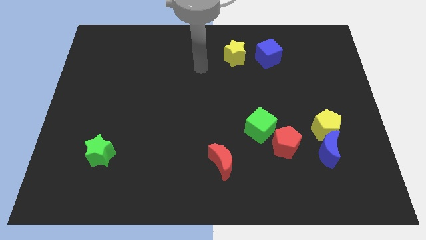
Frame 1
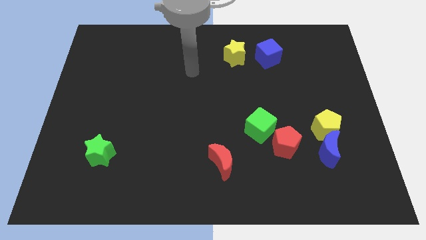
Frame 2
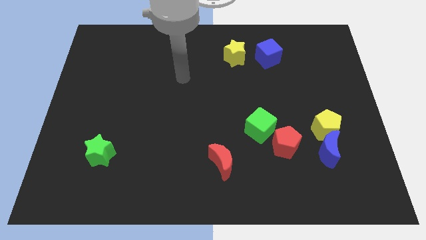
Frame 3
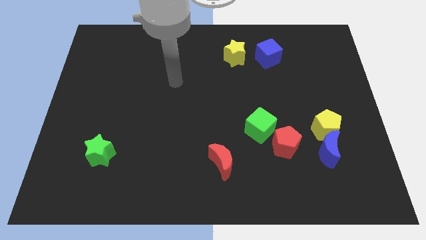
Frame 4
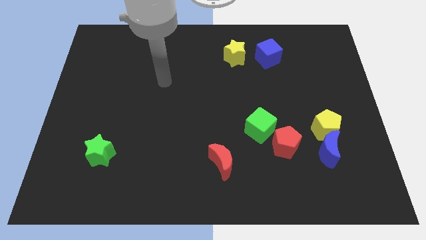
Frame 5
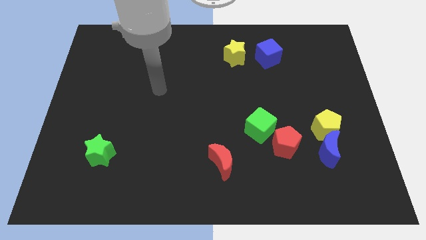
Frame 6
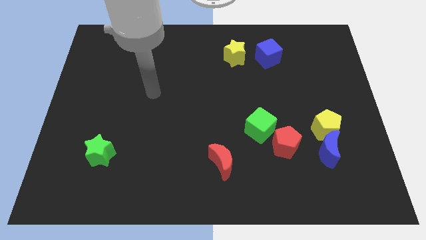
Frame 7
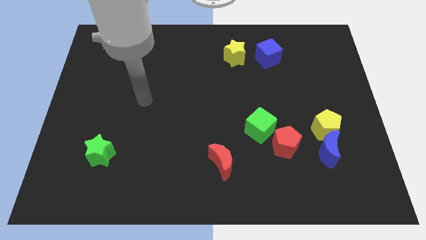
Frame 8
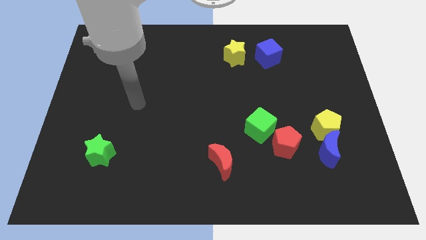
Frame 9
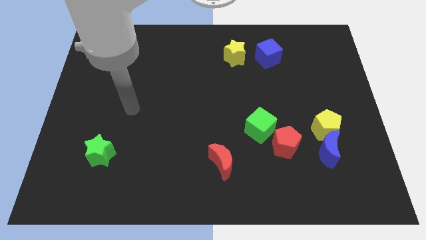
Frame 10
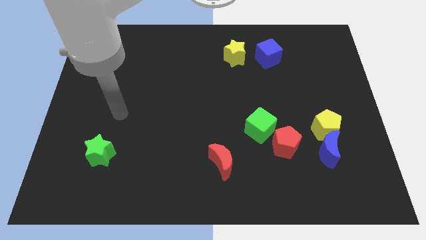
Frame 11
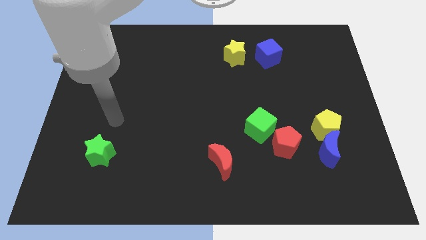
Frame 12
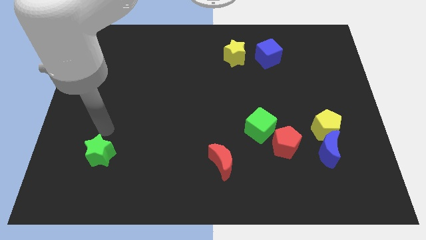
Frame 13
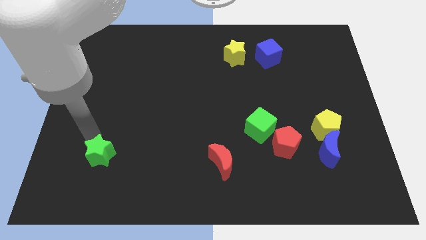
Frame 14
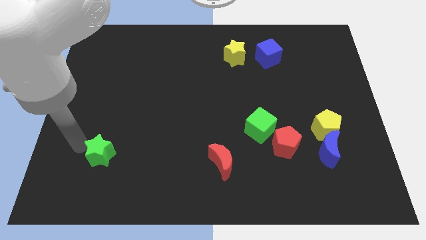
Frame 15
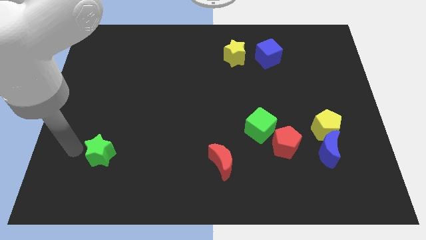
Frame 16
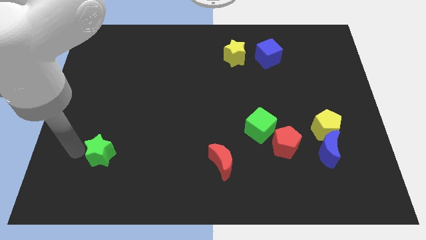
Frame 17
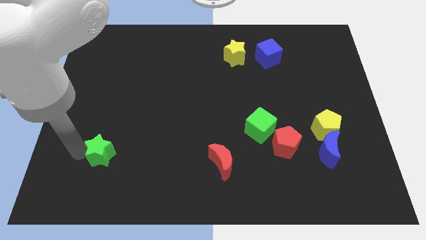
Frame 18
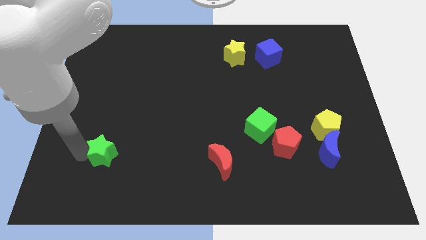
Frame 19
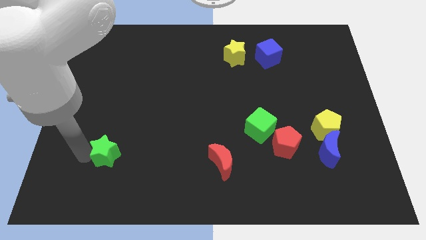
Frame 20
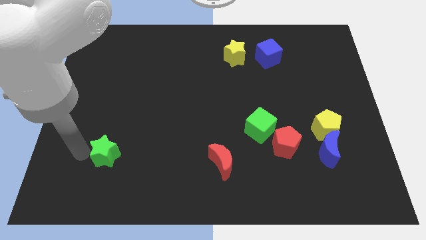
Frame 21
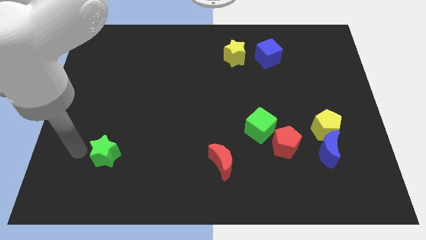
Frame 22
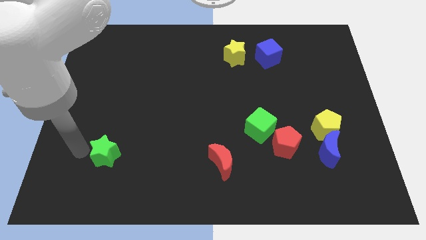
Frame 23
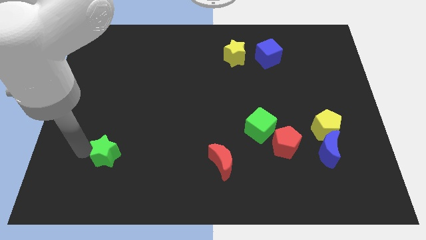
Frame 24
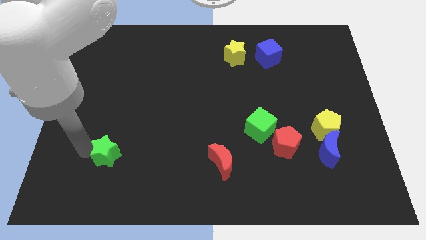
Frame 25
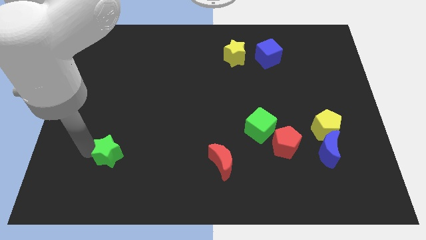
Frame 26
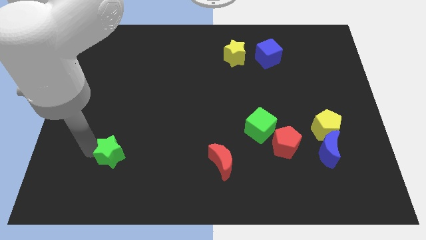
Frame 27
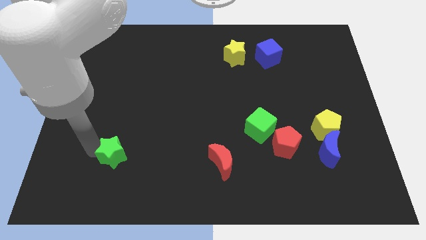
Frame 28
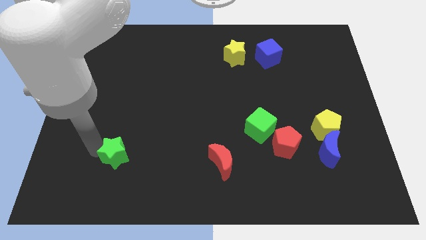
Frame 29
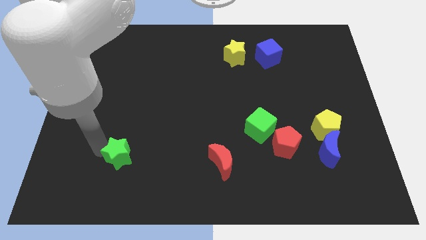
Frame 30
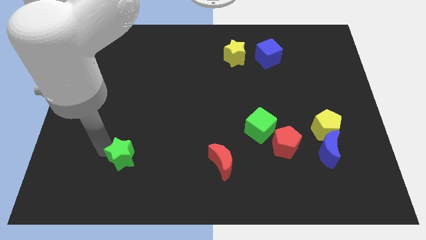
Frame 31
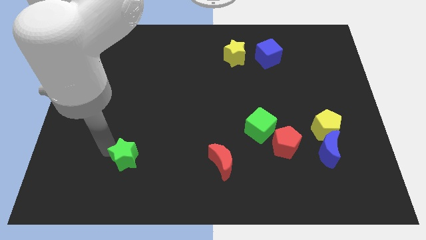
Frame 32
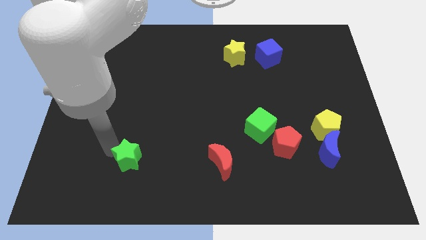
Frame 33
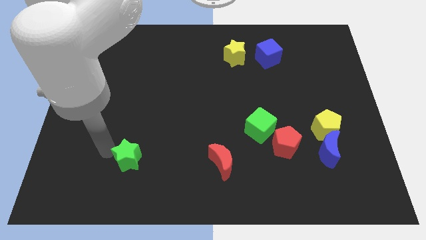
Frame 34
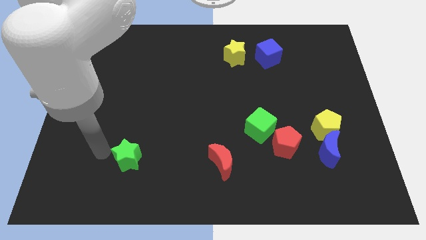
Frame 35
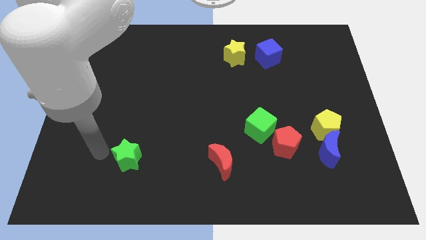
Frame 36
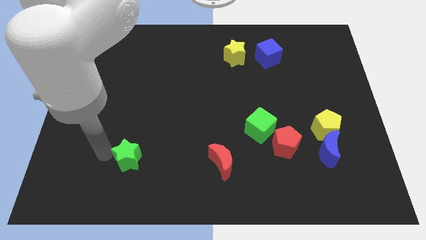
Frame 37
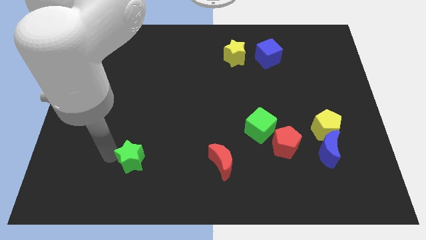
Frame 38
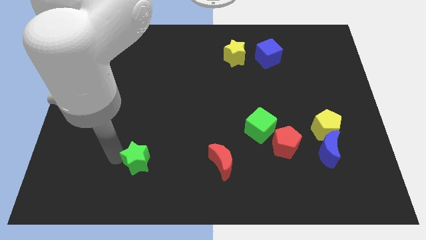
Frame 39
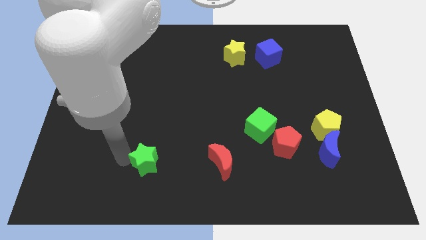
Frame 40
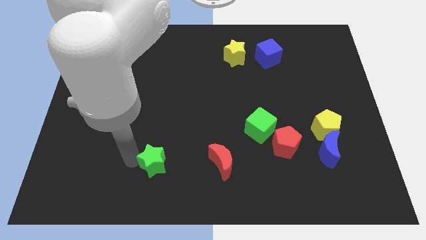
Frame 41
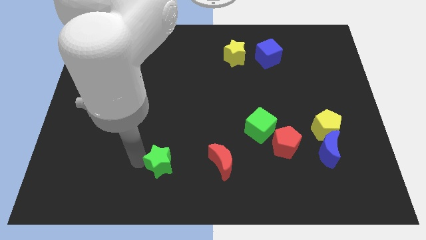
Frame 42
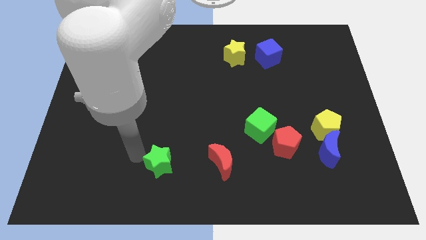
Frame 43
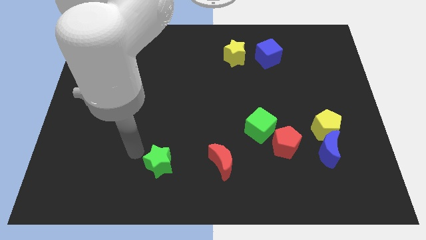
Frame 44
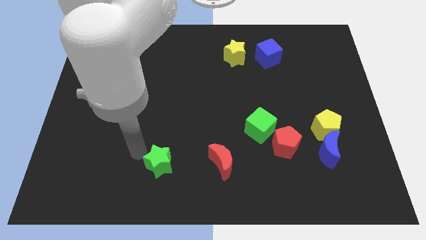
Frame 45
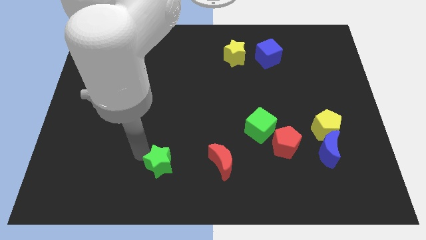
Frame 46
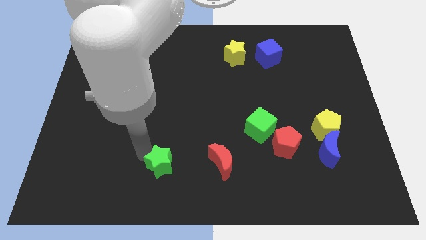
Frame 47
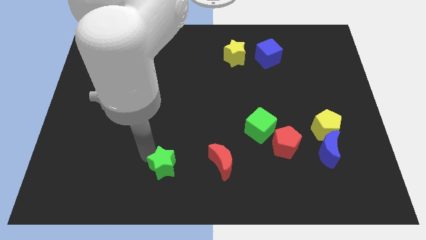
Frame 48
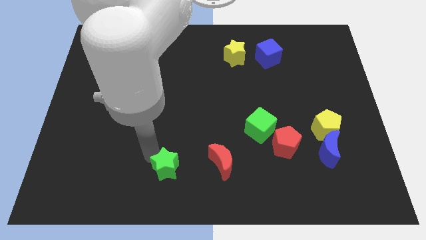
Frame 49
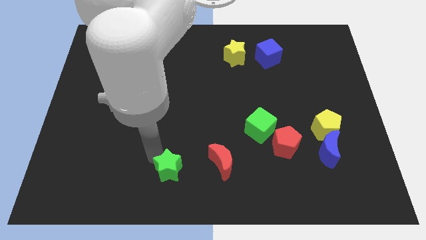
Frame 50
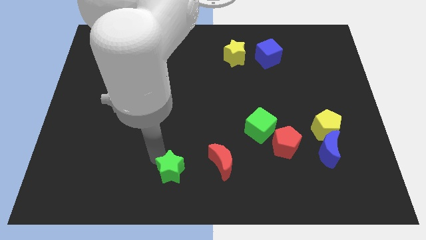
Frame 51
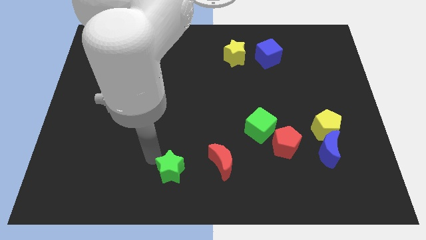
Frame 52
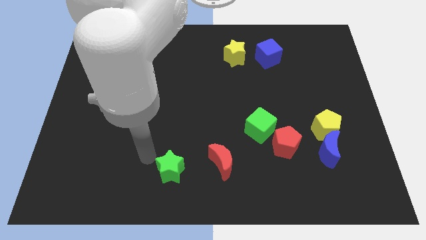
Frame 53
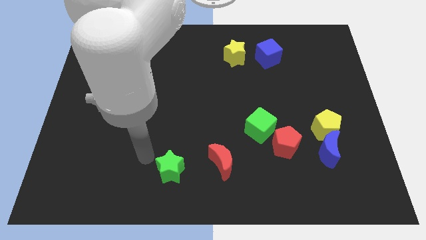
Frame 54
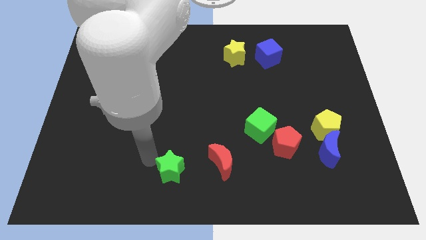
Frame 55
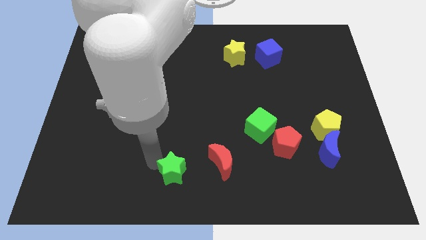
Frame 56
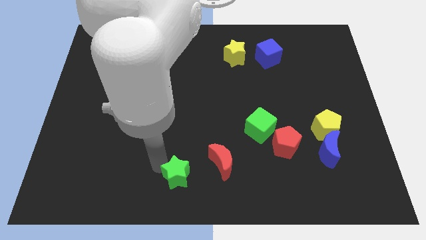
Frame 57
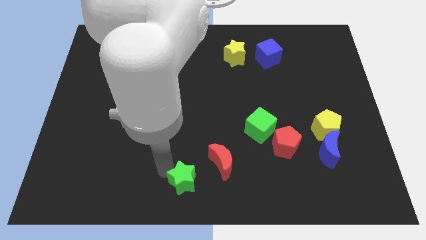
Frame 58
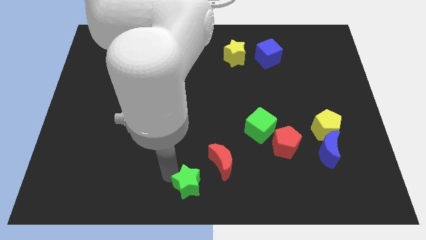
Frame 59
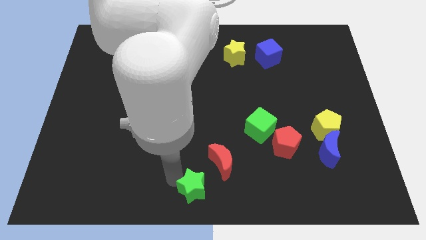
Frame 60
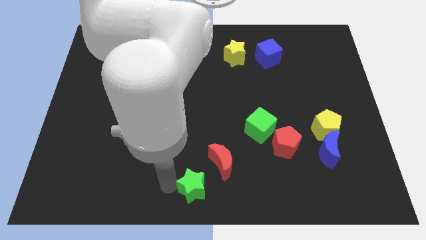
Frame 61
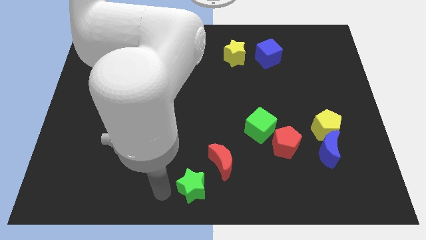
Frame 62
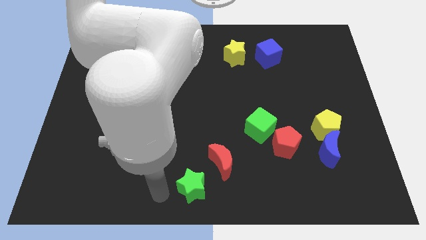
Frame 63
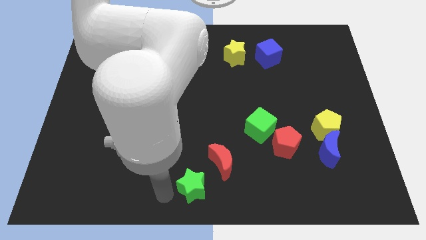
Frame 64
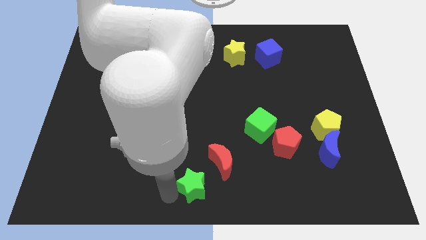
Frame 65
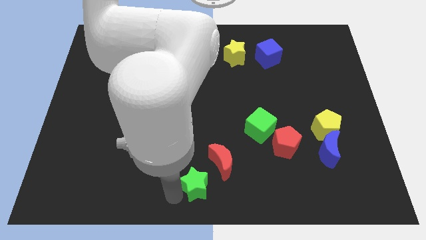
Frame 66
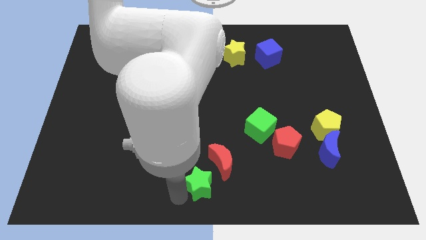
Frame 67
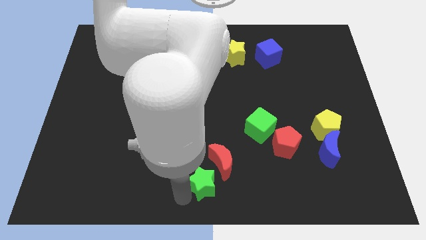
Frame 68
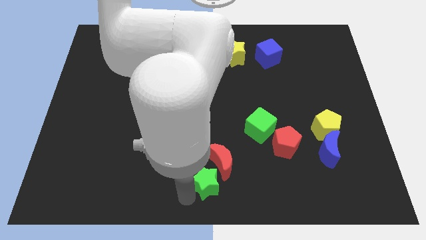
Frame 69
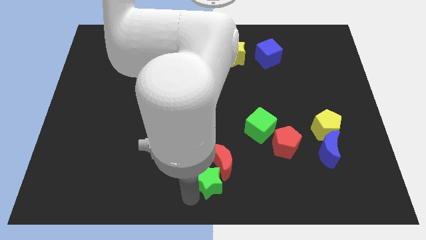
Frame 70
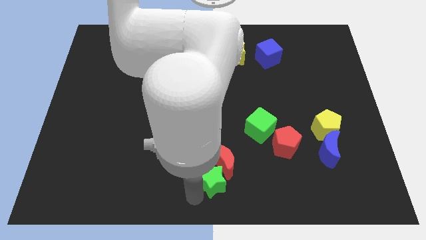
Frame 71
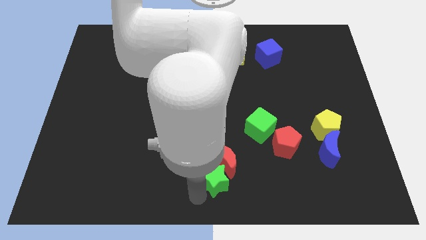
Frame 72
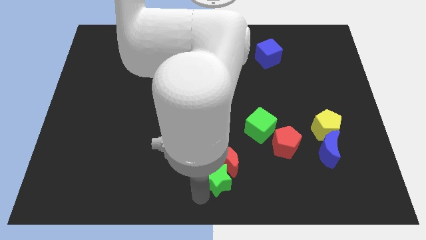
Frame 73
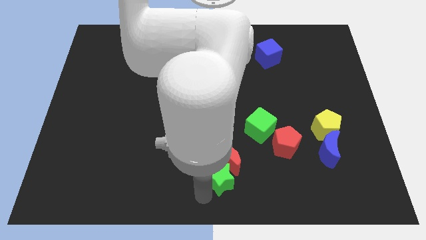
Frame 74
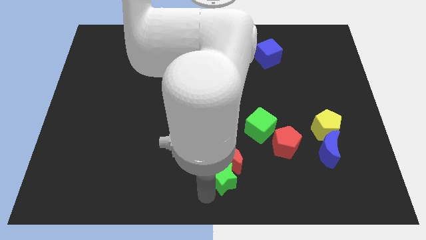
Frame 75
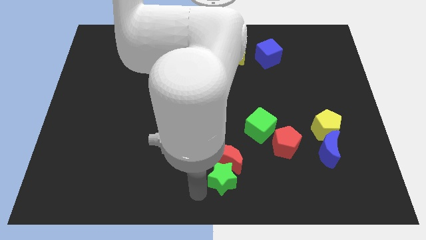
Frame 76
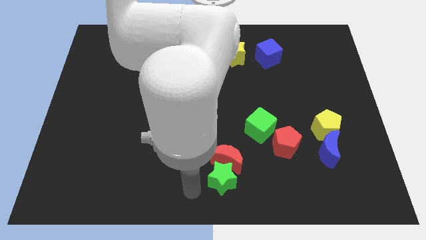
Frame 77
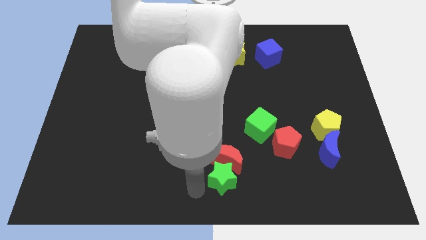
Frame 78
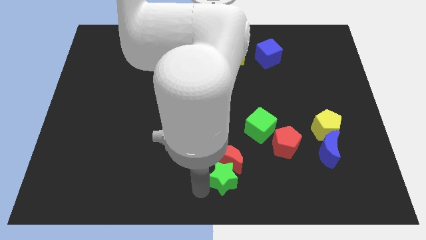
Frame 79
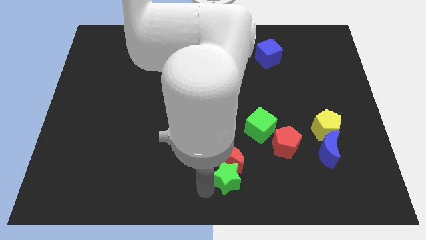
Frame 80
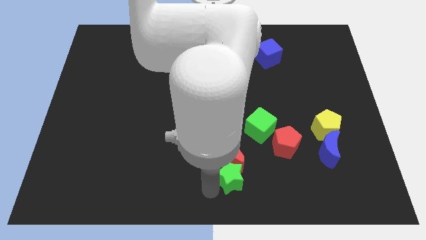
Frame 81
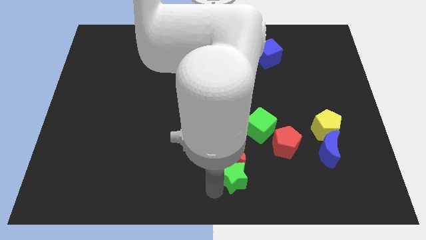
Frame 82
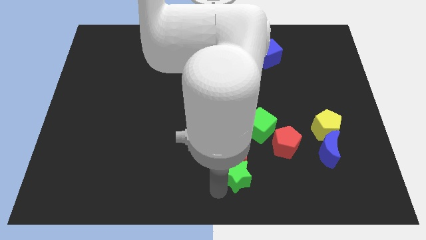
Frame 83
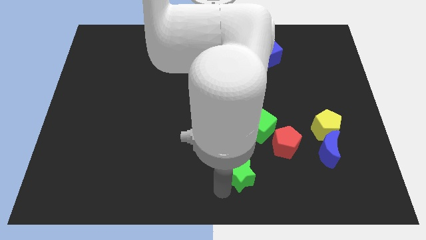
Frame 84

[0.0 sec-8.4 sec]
slide the green star to the bottom side of the green cube
